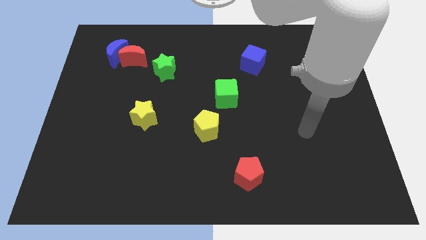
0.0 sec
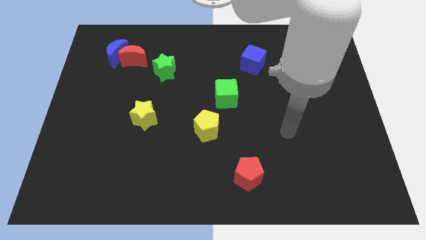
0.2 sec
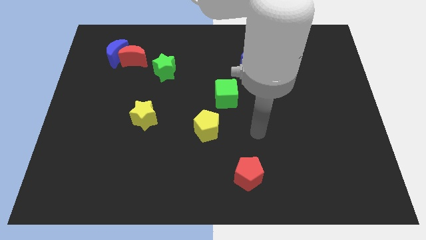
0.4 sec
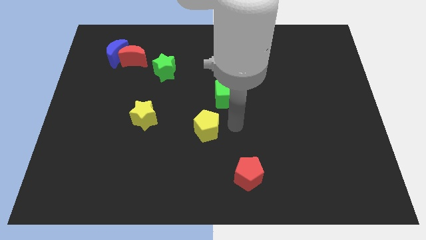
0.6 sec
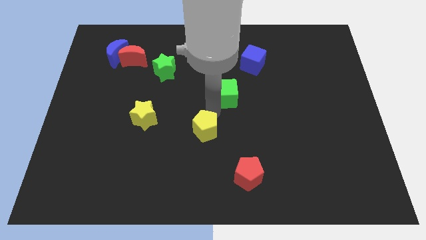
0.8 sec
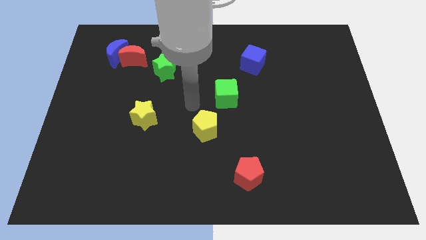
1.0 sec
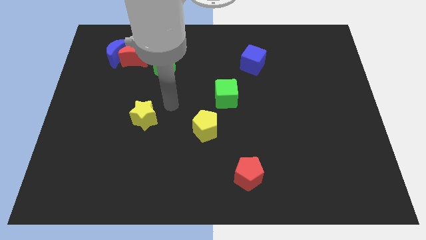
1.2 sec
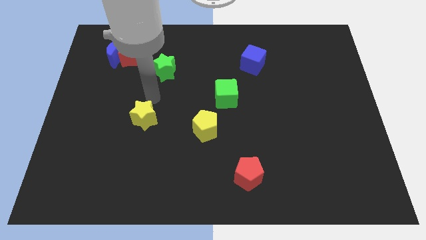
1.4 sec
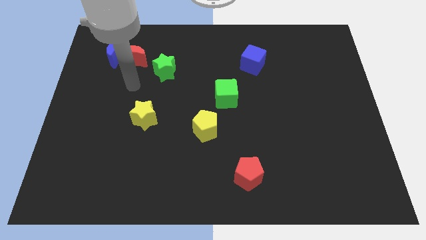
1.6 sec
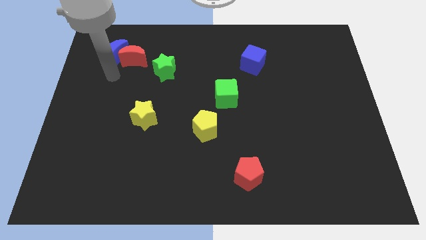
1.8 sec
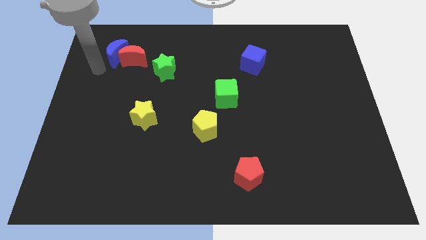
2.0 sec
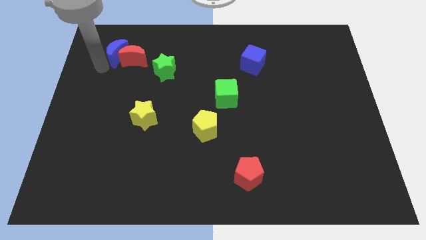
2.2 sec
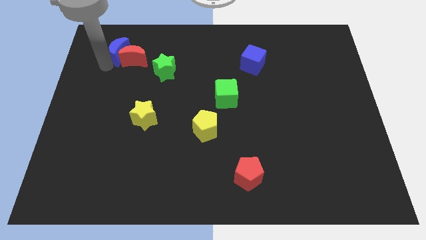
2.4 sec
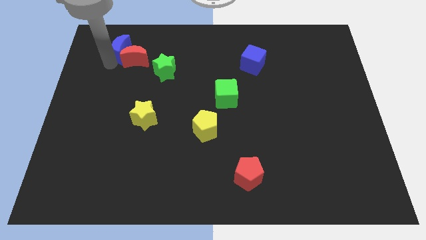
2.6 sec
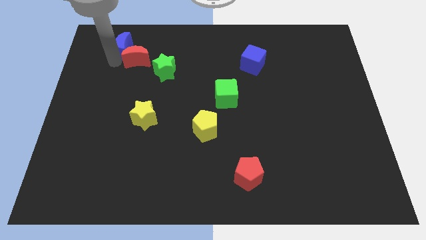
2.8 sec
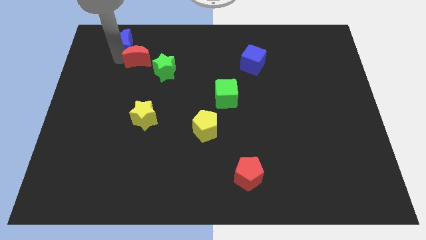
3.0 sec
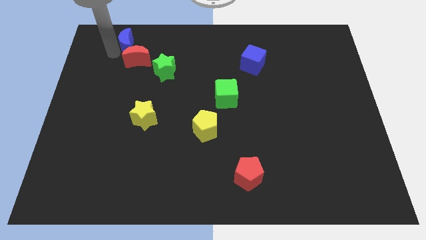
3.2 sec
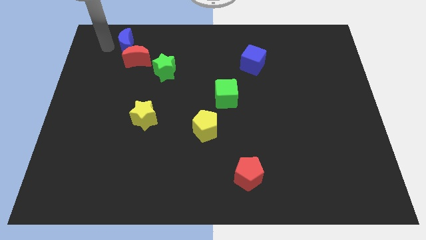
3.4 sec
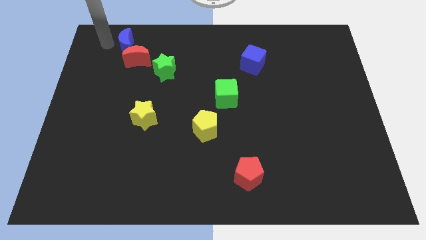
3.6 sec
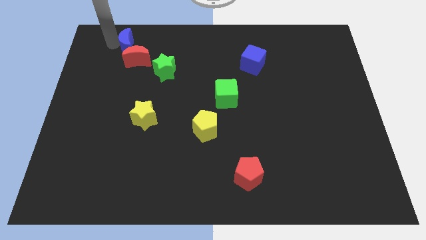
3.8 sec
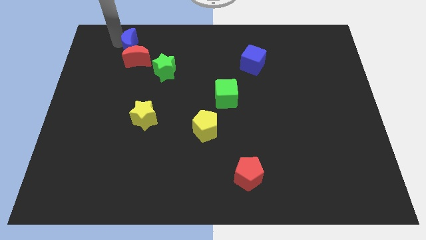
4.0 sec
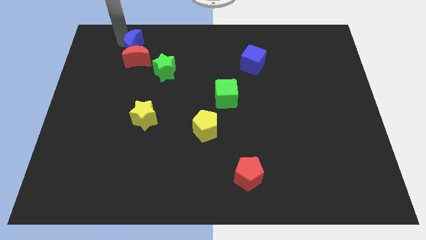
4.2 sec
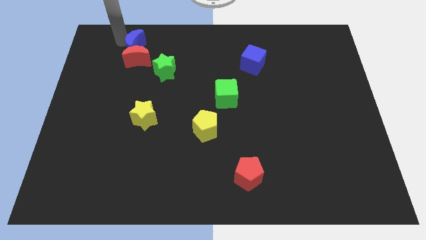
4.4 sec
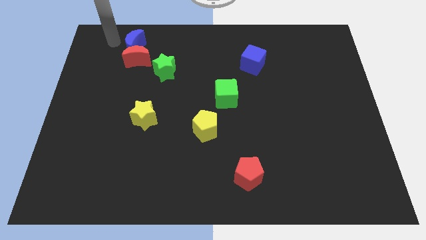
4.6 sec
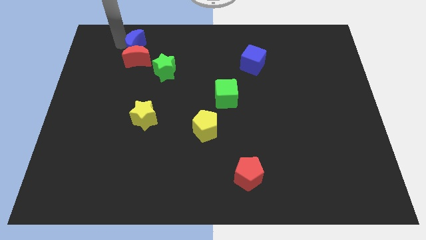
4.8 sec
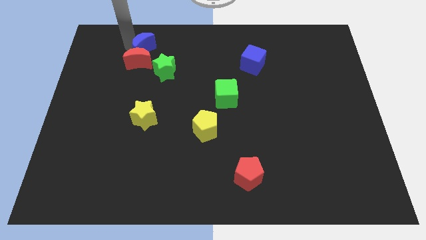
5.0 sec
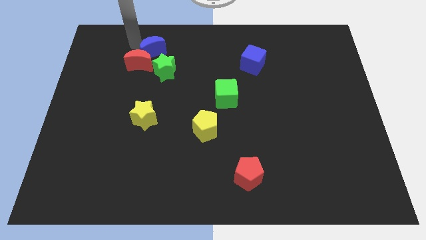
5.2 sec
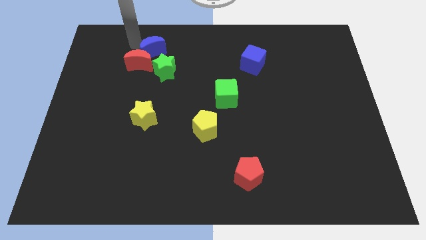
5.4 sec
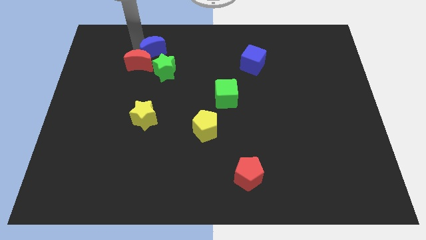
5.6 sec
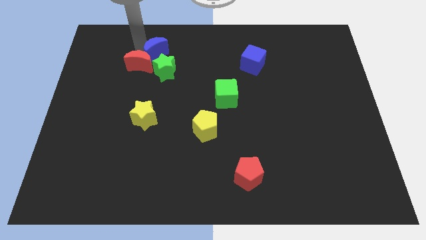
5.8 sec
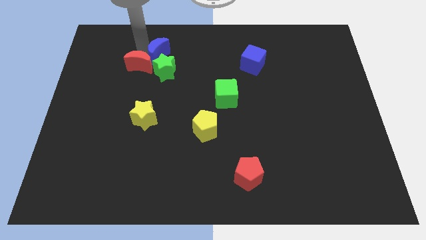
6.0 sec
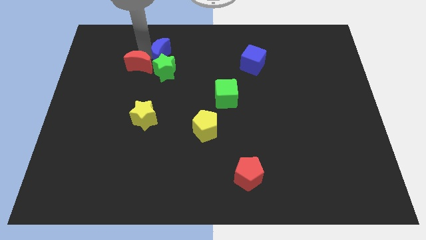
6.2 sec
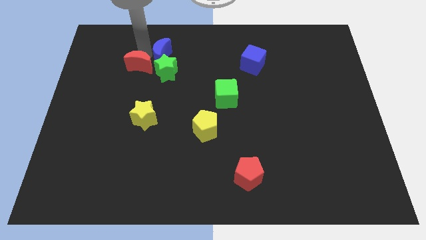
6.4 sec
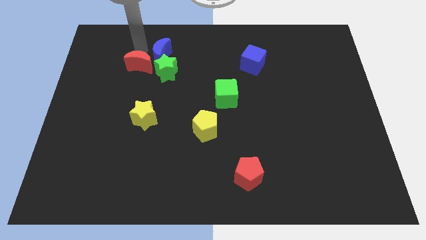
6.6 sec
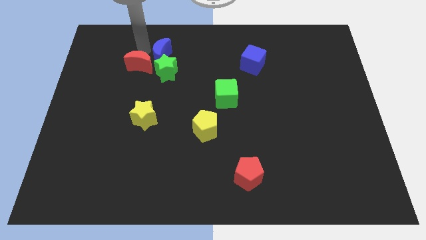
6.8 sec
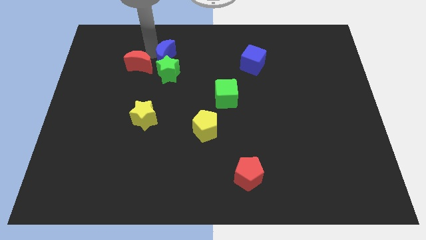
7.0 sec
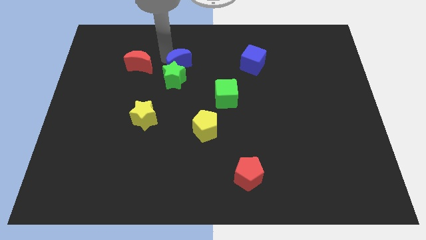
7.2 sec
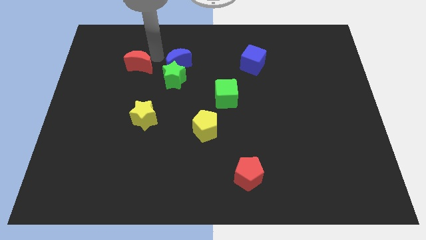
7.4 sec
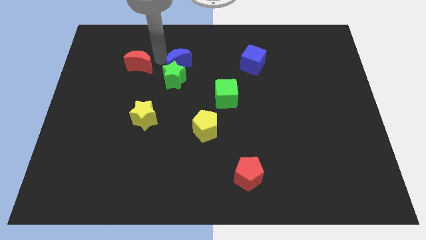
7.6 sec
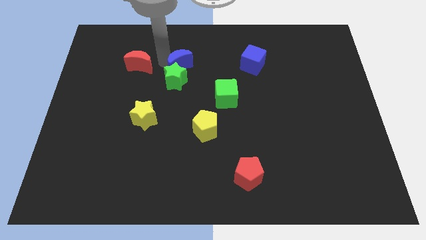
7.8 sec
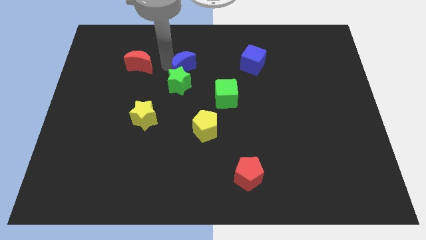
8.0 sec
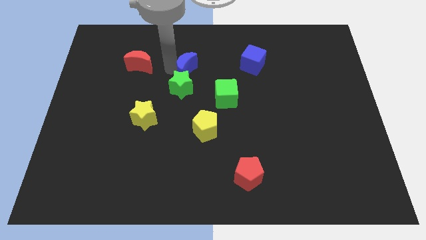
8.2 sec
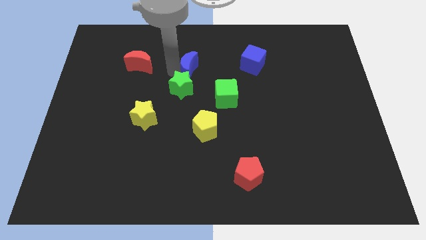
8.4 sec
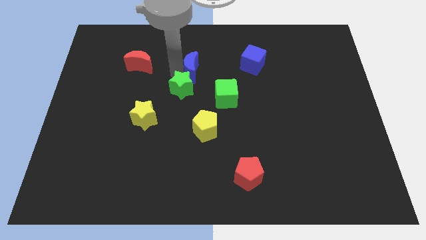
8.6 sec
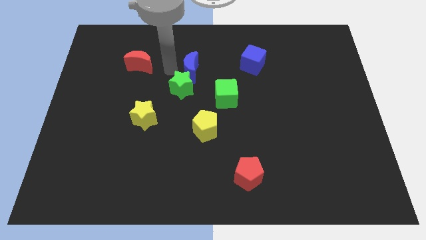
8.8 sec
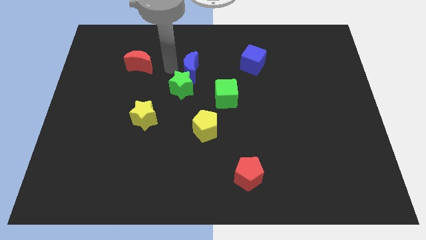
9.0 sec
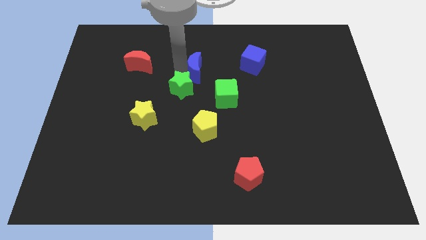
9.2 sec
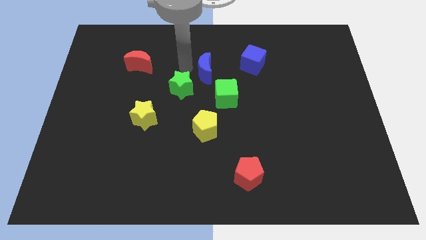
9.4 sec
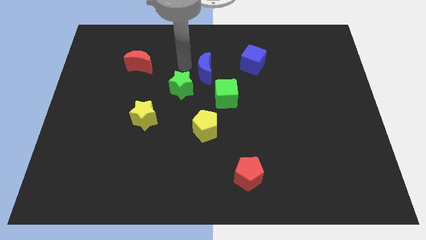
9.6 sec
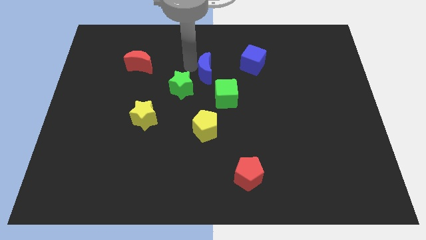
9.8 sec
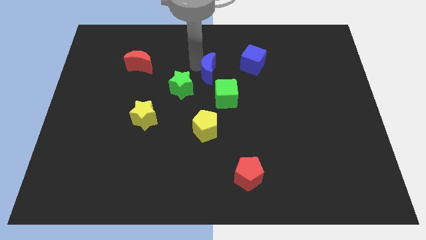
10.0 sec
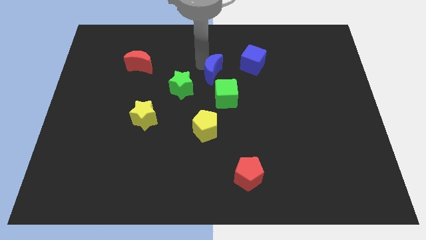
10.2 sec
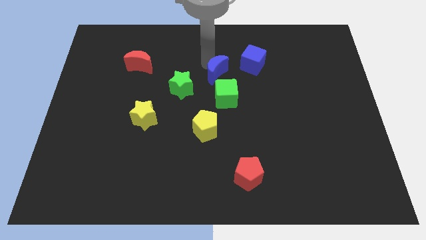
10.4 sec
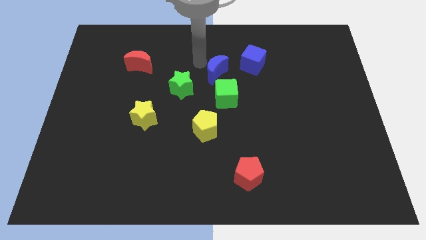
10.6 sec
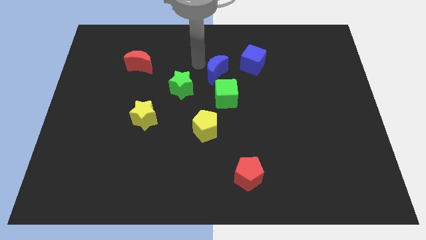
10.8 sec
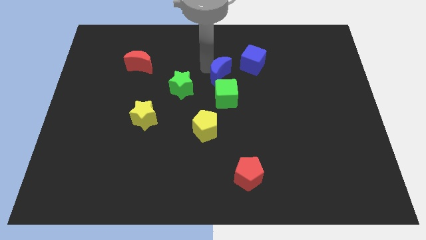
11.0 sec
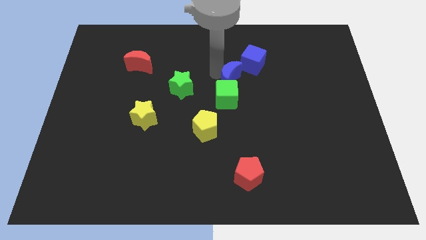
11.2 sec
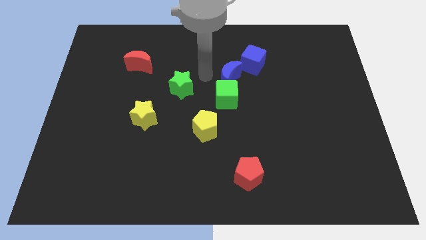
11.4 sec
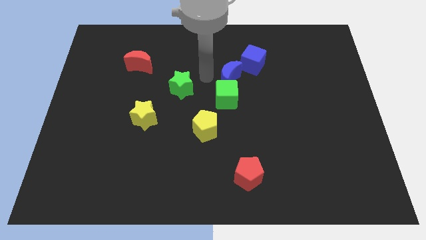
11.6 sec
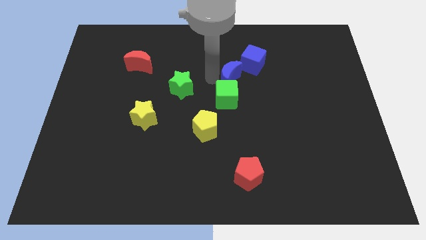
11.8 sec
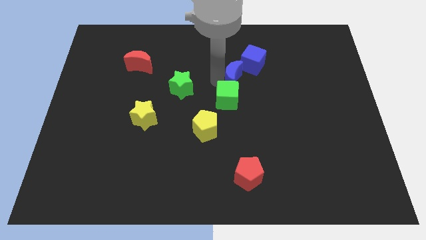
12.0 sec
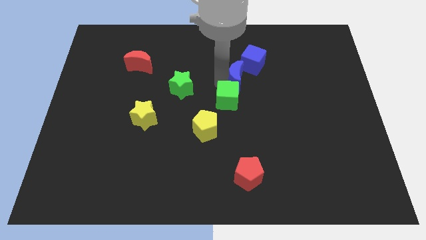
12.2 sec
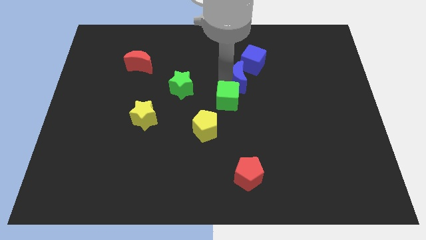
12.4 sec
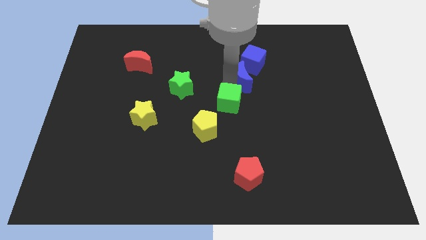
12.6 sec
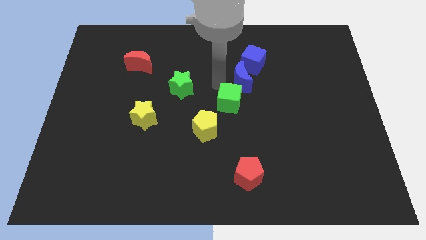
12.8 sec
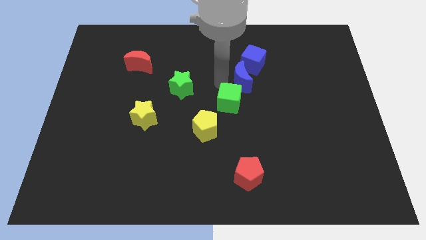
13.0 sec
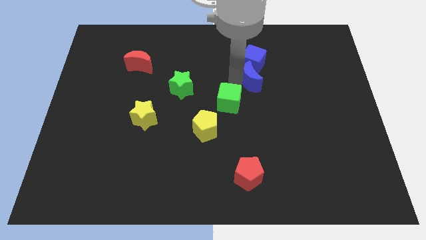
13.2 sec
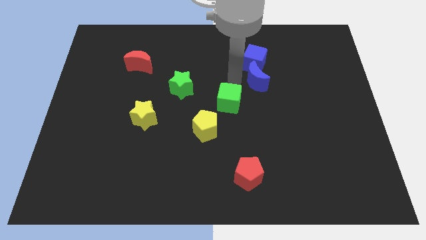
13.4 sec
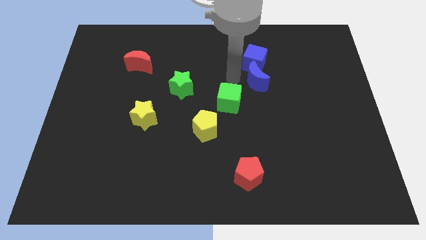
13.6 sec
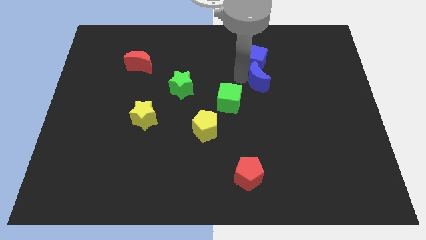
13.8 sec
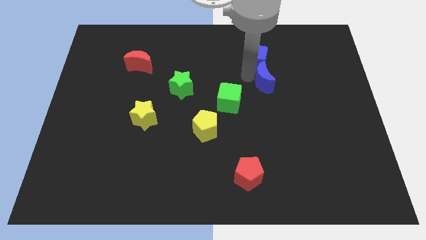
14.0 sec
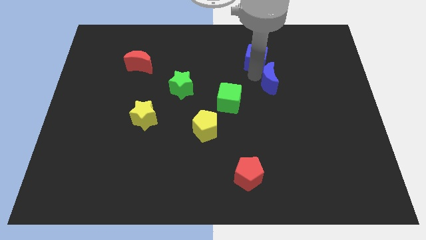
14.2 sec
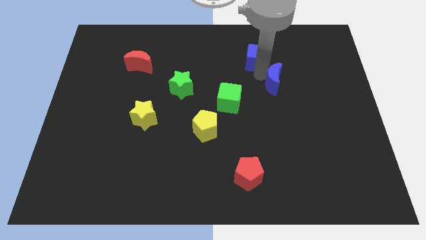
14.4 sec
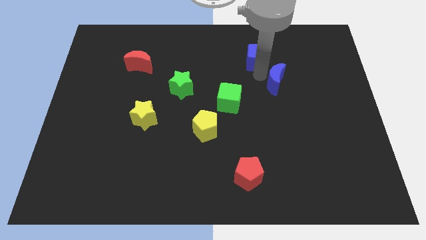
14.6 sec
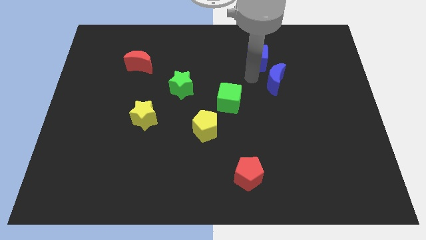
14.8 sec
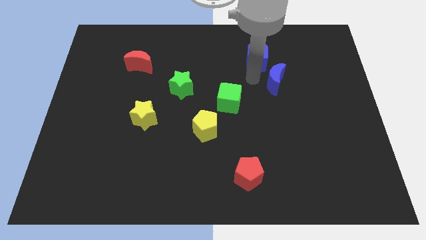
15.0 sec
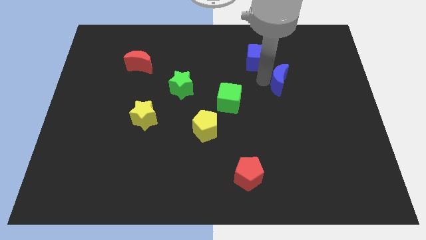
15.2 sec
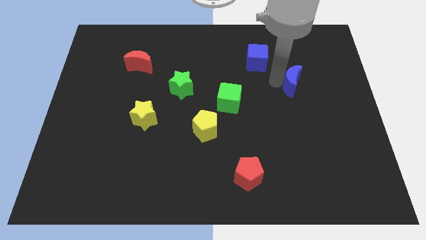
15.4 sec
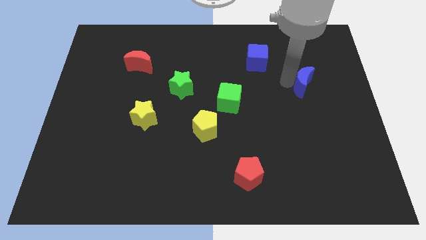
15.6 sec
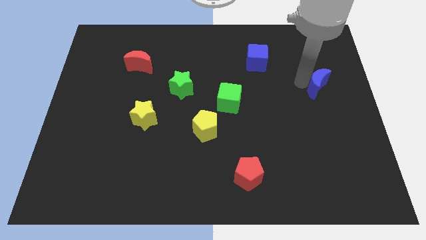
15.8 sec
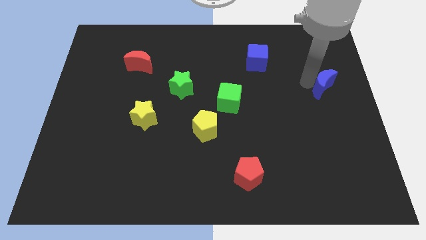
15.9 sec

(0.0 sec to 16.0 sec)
put the blue moon to the center right
